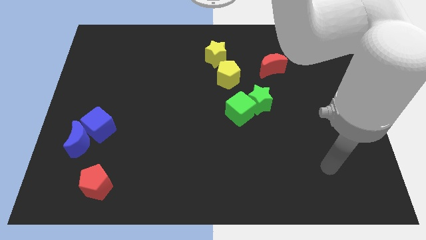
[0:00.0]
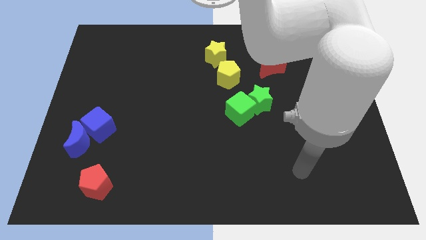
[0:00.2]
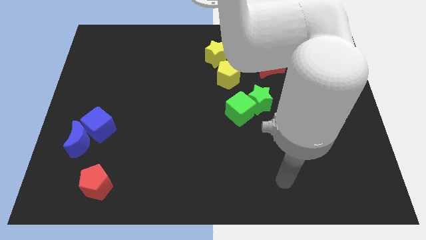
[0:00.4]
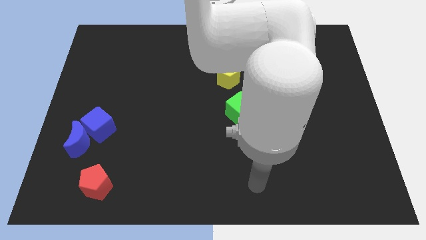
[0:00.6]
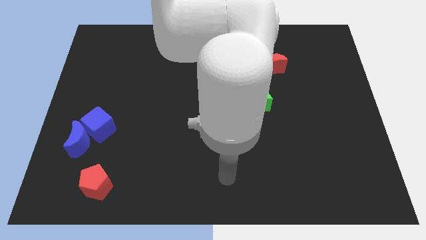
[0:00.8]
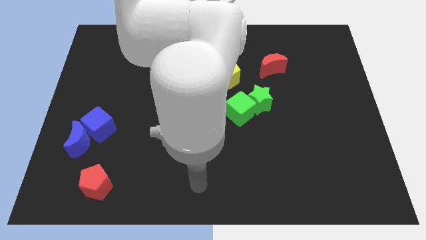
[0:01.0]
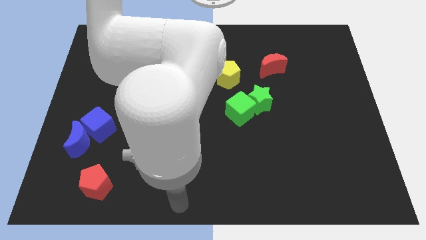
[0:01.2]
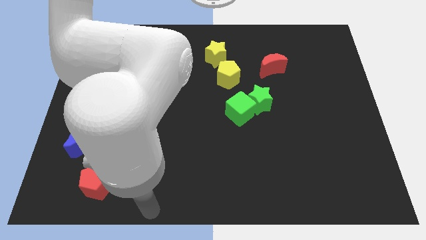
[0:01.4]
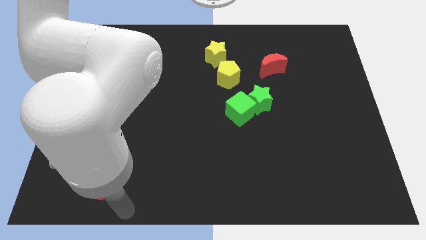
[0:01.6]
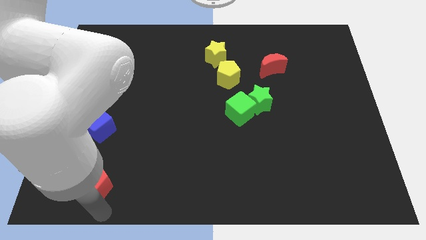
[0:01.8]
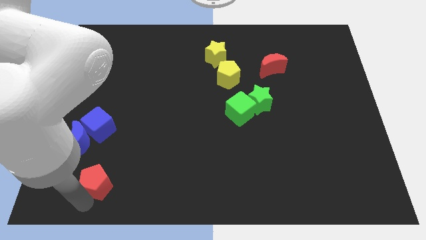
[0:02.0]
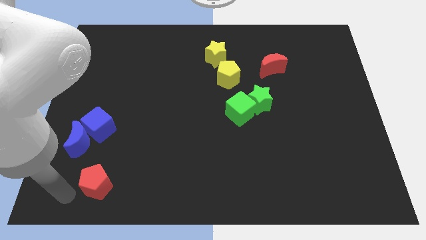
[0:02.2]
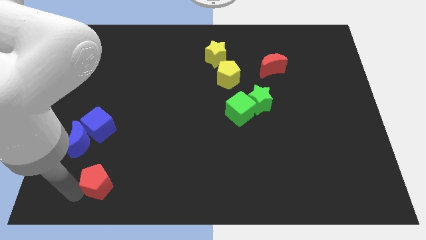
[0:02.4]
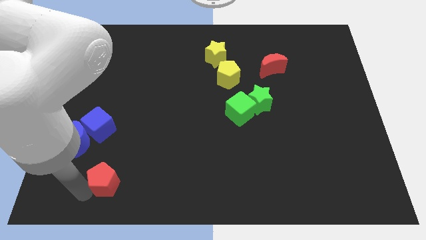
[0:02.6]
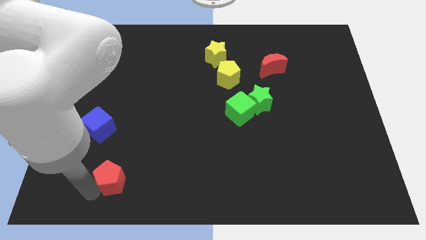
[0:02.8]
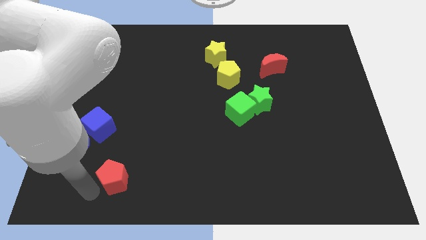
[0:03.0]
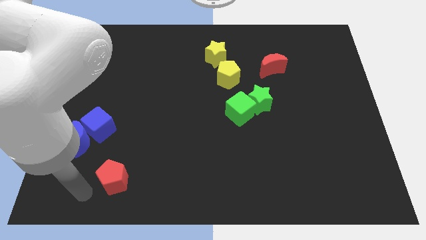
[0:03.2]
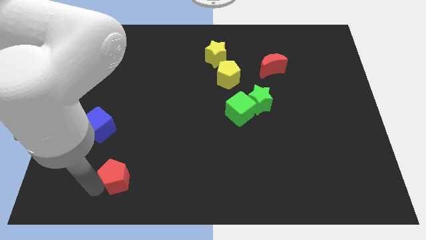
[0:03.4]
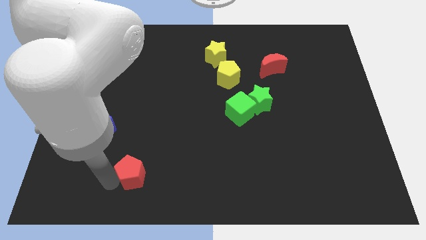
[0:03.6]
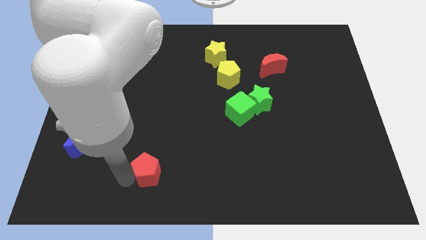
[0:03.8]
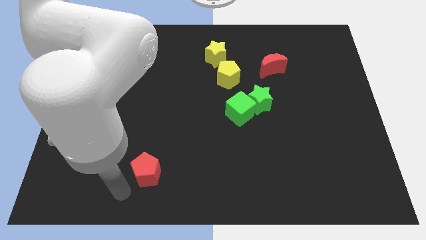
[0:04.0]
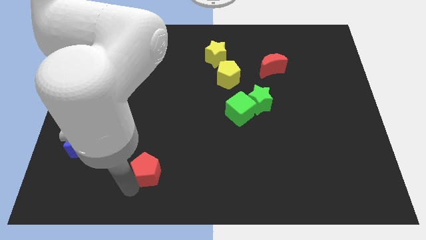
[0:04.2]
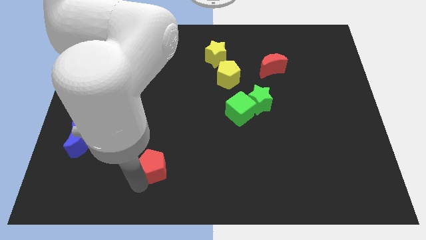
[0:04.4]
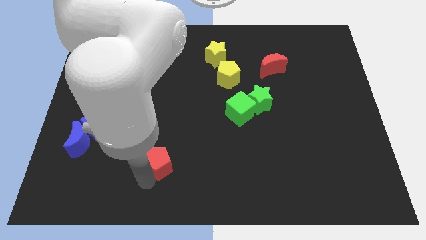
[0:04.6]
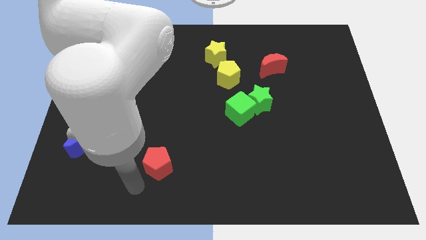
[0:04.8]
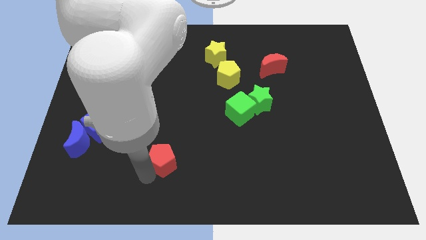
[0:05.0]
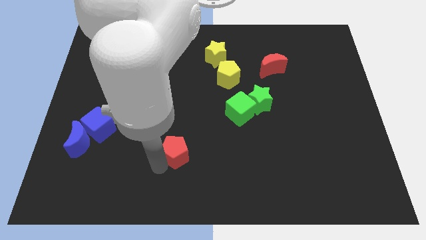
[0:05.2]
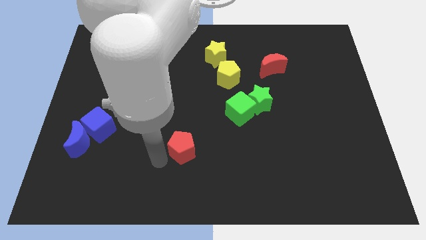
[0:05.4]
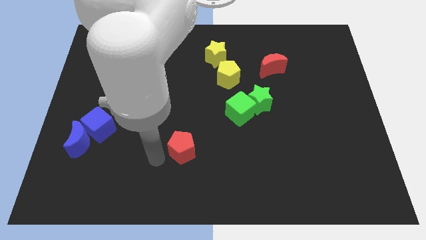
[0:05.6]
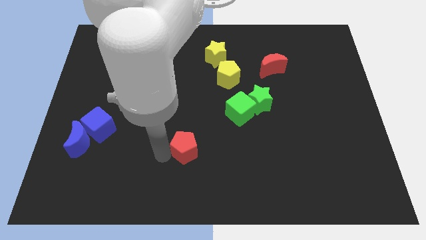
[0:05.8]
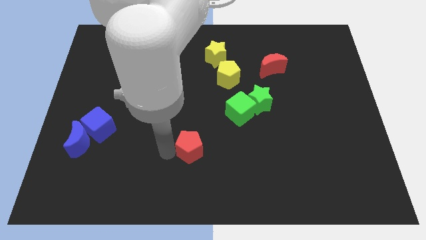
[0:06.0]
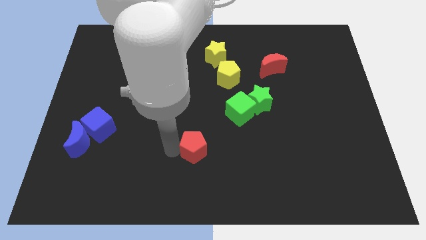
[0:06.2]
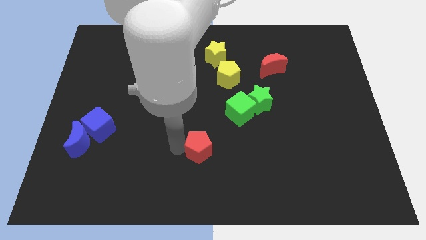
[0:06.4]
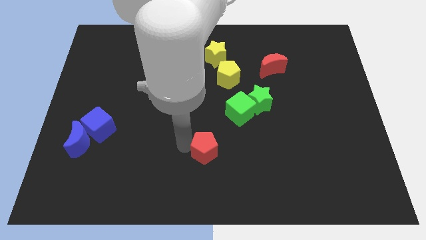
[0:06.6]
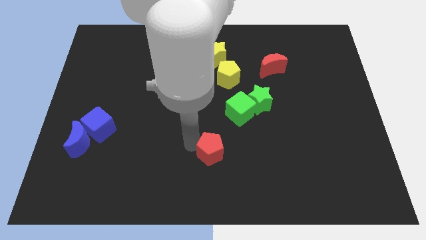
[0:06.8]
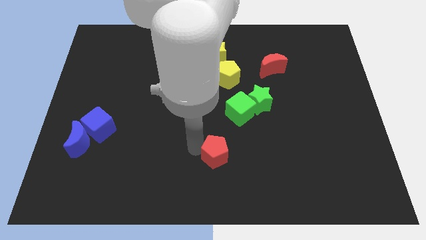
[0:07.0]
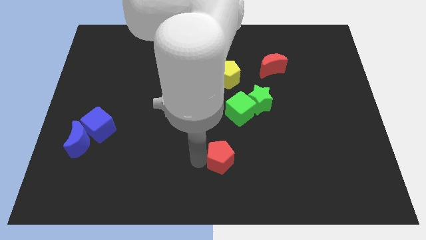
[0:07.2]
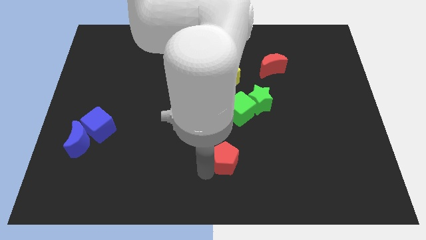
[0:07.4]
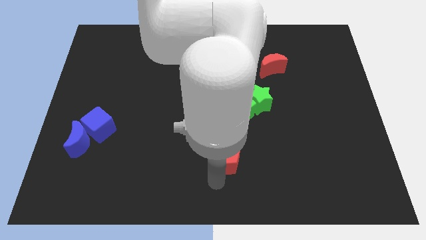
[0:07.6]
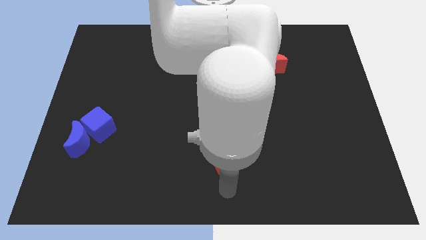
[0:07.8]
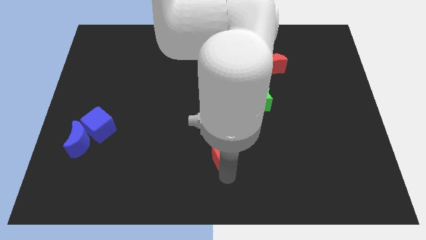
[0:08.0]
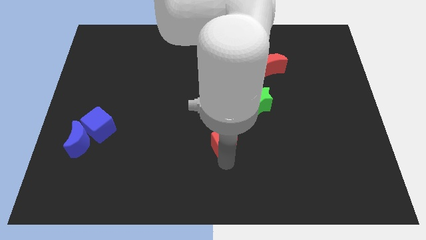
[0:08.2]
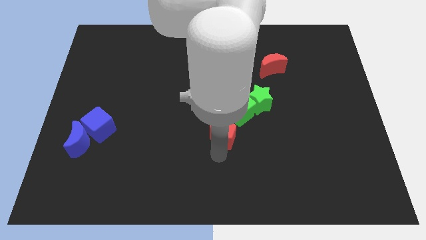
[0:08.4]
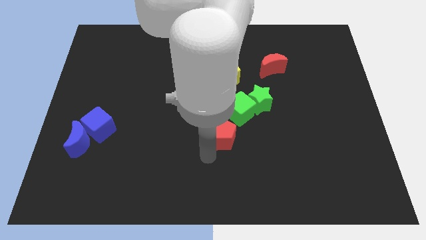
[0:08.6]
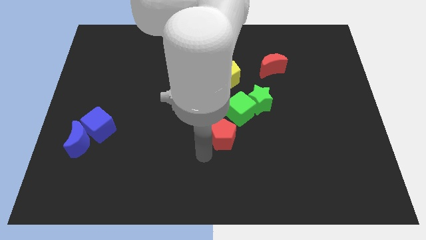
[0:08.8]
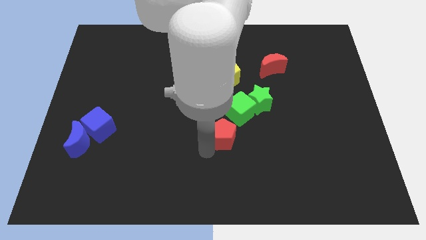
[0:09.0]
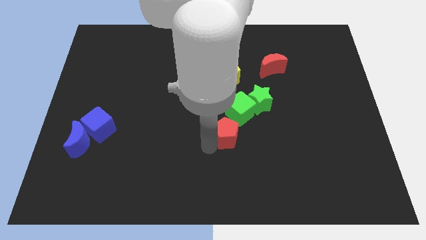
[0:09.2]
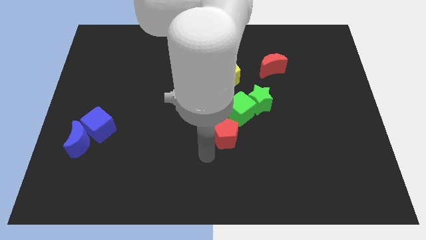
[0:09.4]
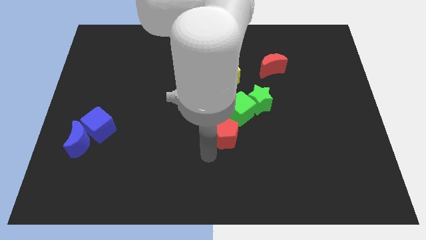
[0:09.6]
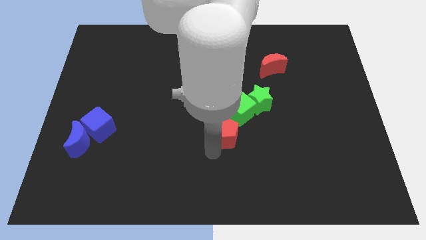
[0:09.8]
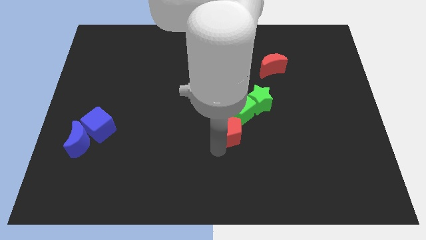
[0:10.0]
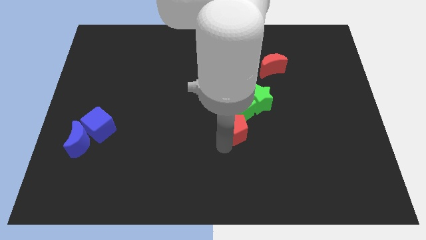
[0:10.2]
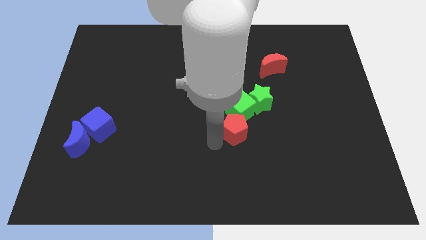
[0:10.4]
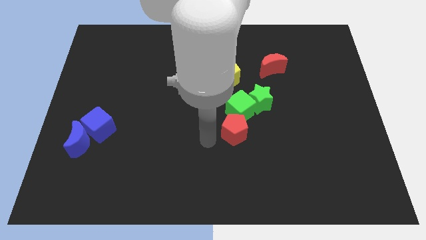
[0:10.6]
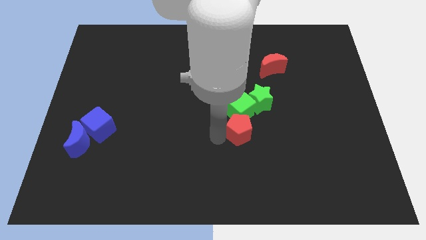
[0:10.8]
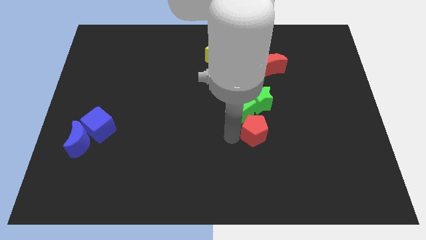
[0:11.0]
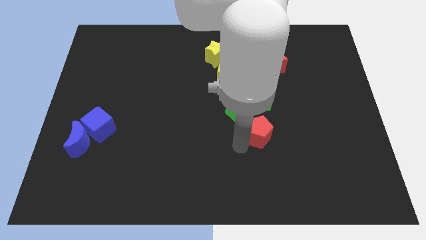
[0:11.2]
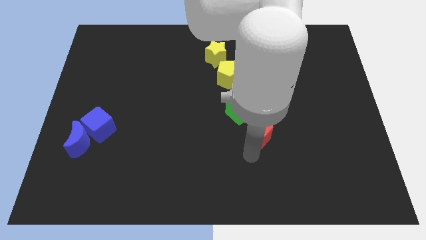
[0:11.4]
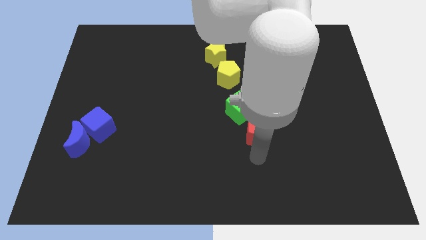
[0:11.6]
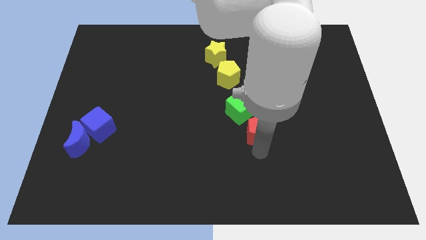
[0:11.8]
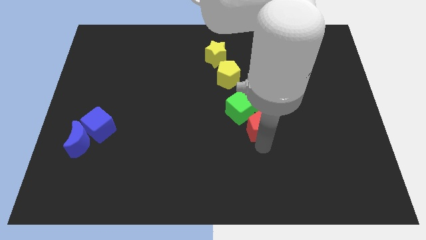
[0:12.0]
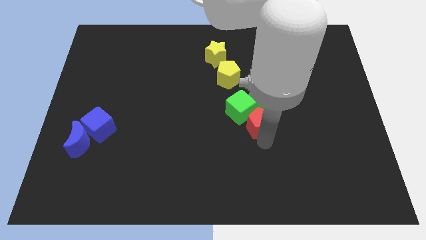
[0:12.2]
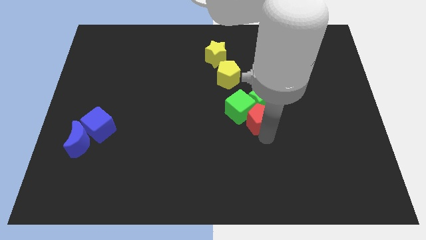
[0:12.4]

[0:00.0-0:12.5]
move the red pentagon to the green star

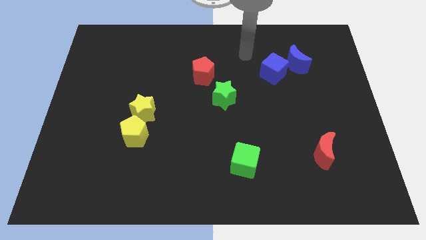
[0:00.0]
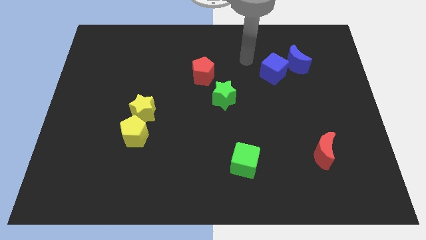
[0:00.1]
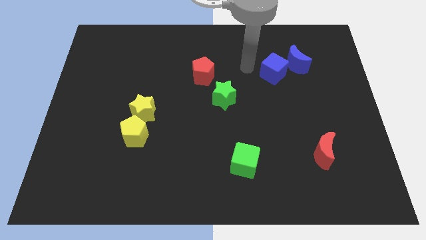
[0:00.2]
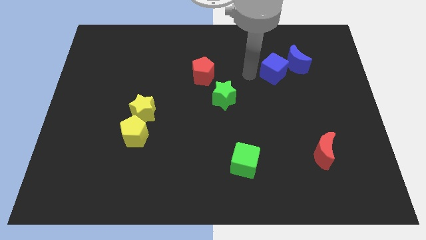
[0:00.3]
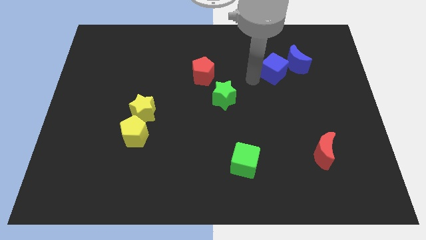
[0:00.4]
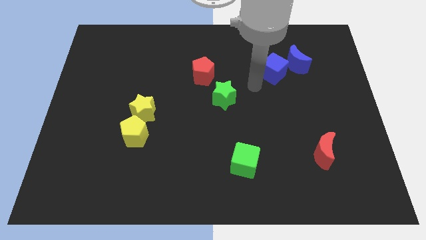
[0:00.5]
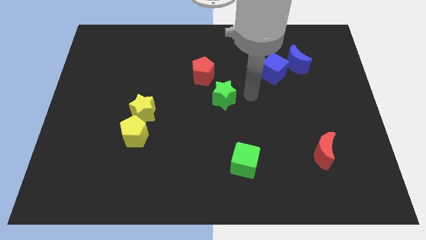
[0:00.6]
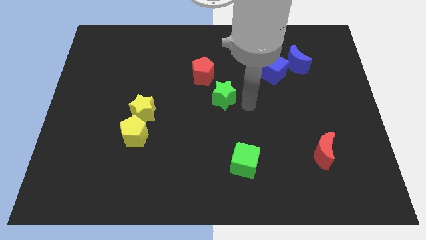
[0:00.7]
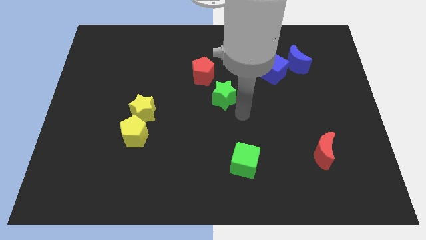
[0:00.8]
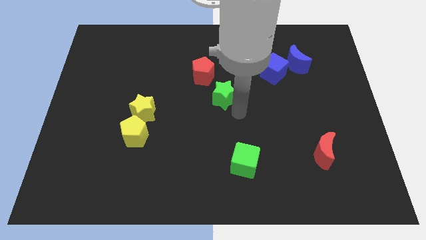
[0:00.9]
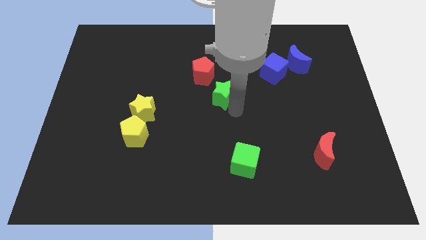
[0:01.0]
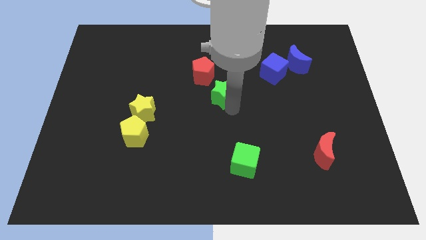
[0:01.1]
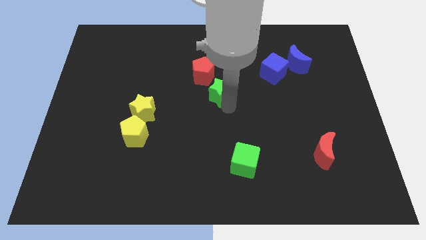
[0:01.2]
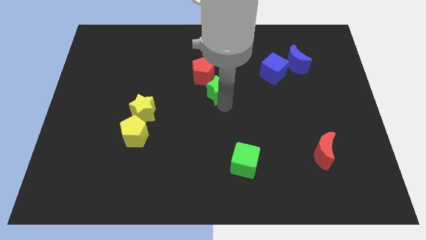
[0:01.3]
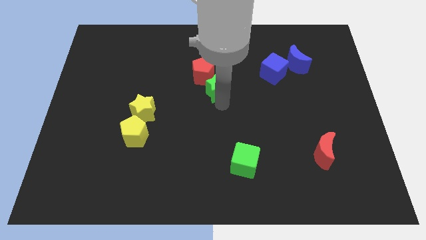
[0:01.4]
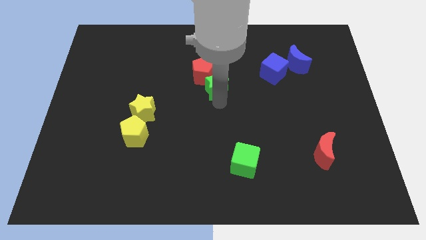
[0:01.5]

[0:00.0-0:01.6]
push the green star close to the red pentagon
